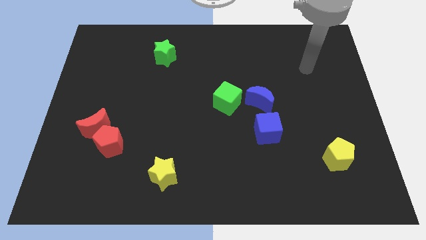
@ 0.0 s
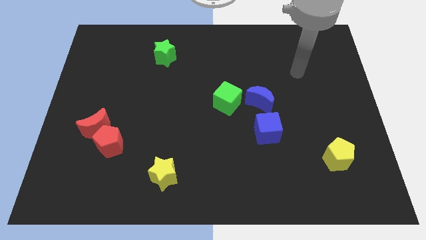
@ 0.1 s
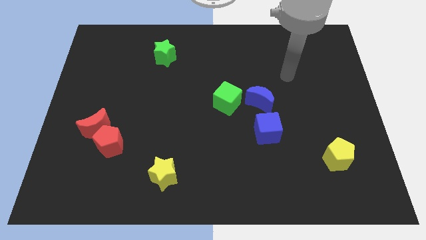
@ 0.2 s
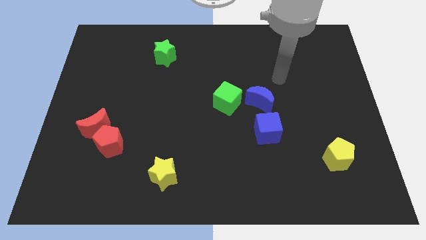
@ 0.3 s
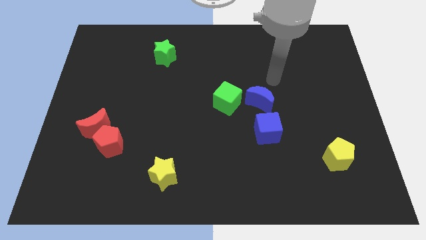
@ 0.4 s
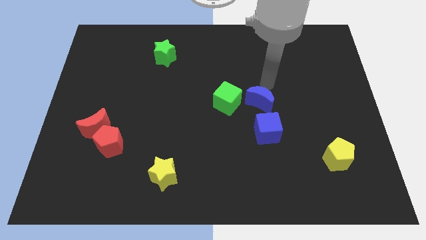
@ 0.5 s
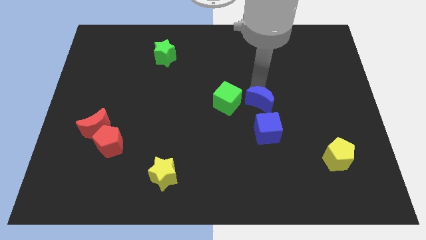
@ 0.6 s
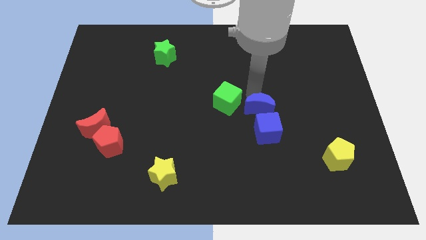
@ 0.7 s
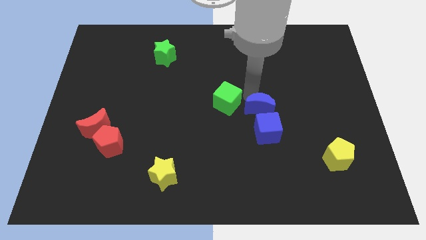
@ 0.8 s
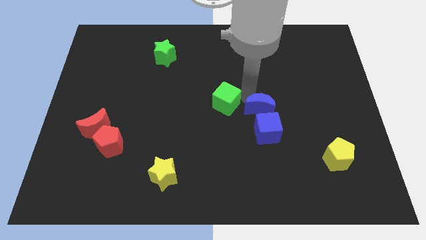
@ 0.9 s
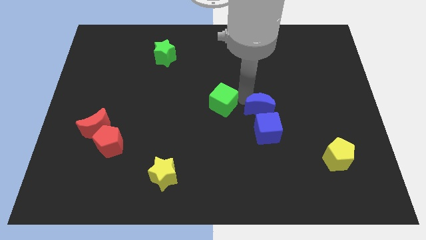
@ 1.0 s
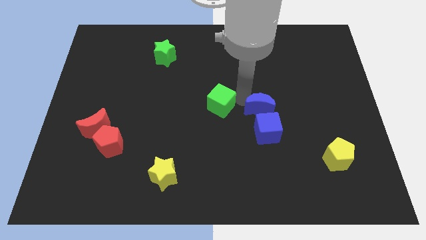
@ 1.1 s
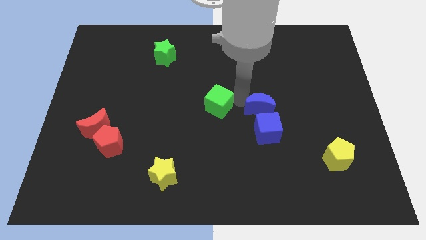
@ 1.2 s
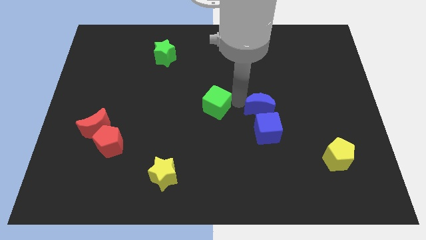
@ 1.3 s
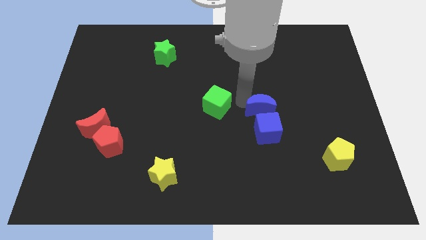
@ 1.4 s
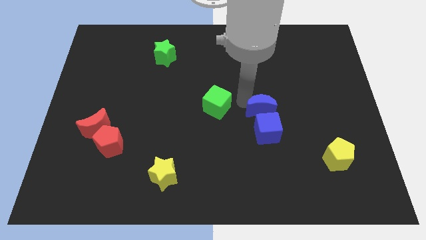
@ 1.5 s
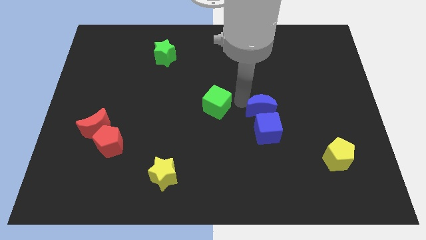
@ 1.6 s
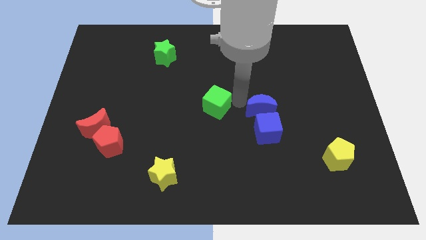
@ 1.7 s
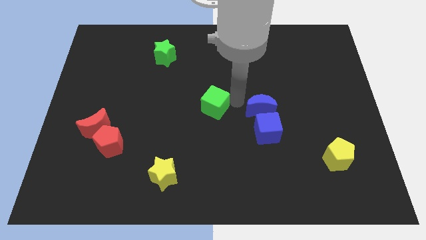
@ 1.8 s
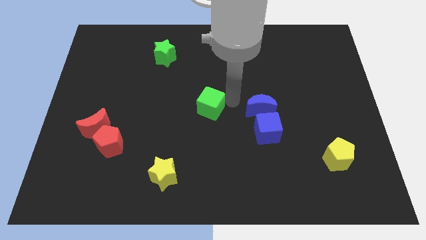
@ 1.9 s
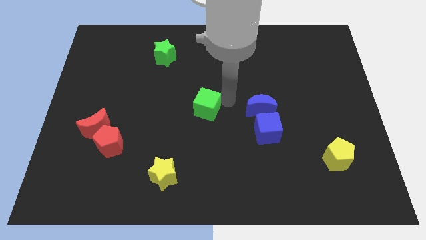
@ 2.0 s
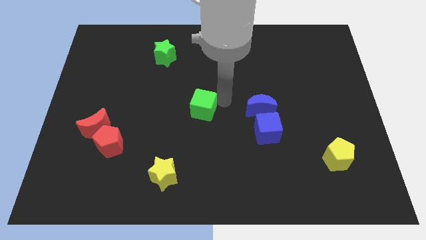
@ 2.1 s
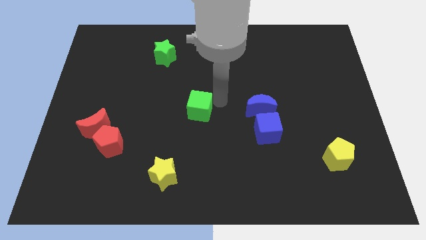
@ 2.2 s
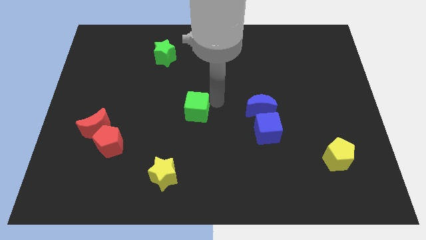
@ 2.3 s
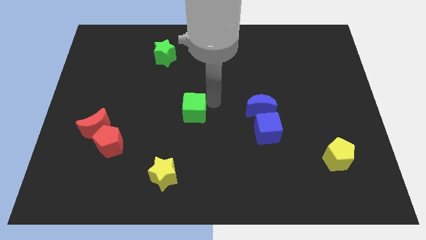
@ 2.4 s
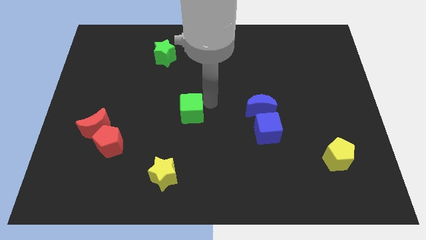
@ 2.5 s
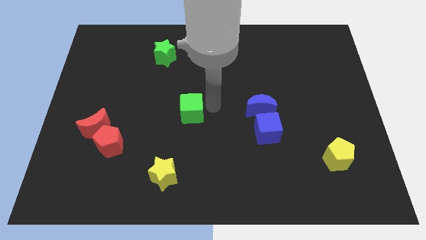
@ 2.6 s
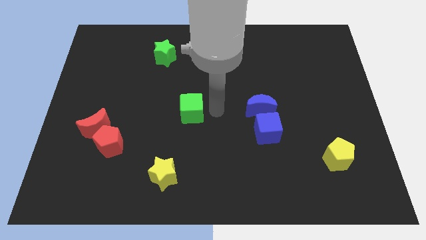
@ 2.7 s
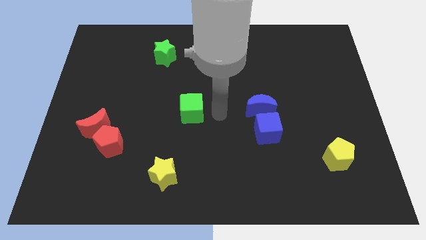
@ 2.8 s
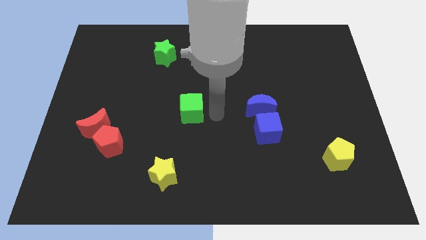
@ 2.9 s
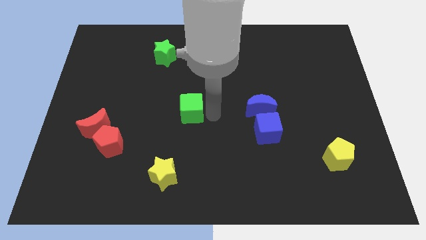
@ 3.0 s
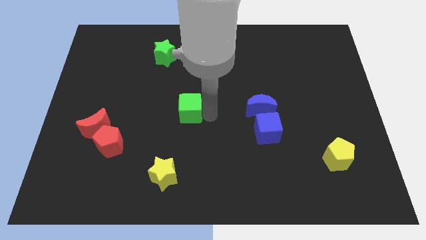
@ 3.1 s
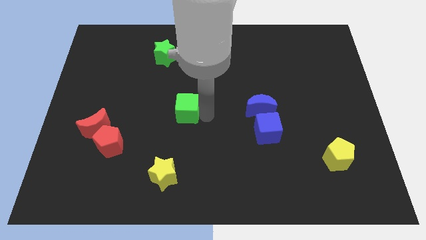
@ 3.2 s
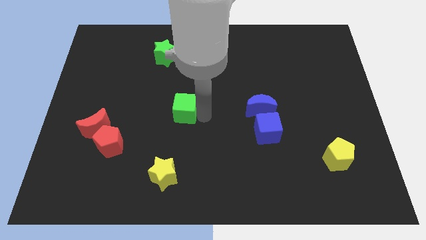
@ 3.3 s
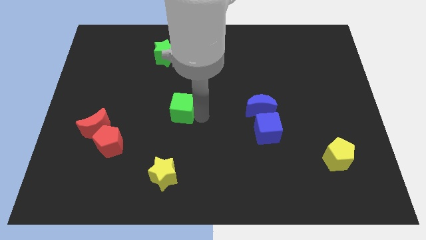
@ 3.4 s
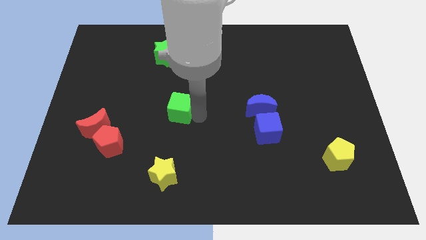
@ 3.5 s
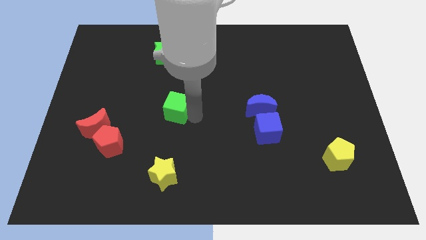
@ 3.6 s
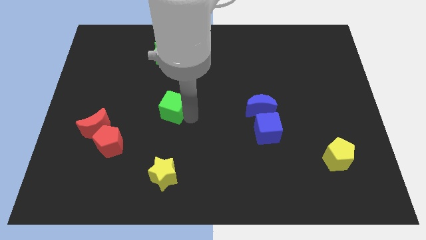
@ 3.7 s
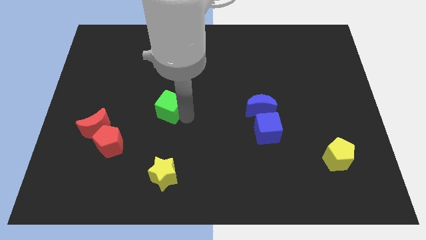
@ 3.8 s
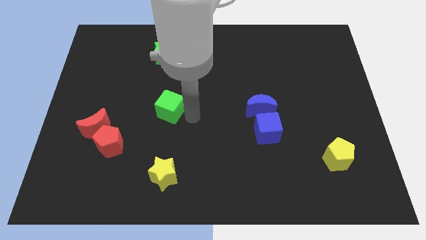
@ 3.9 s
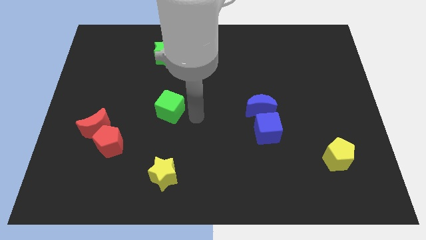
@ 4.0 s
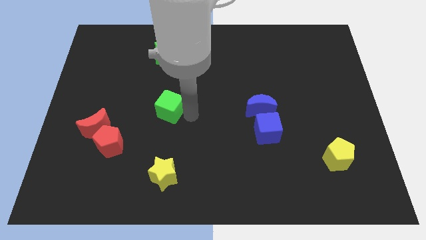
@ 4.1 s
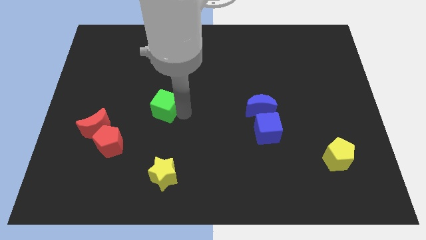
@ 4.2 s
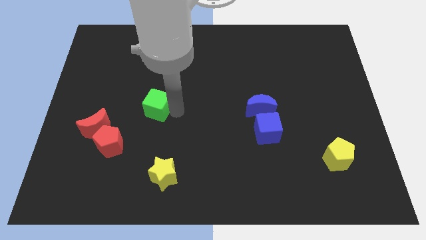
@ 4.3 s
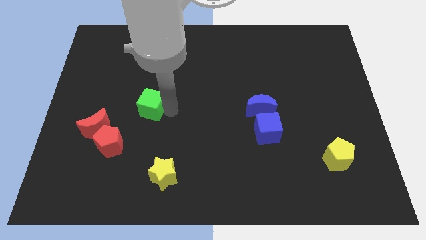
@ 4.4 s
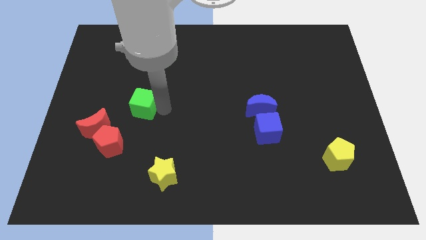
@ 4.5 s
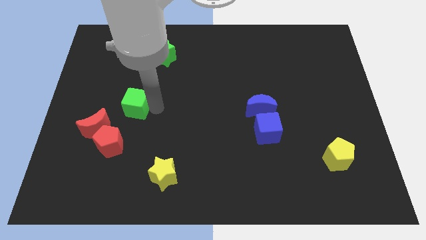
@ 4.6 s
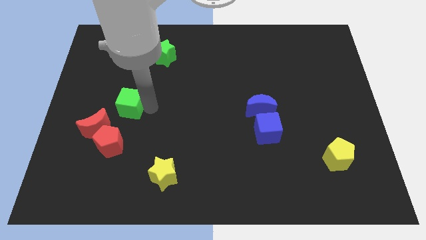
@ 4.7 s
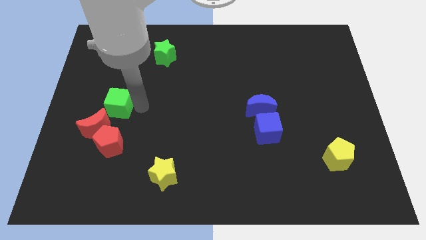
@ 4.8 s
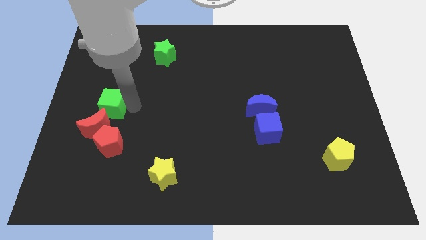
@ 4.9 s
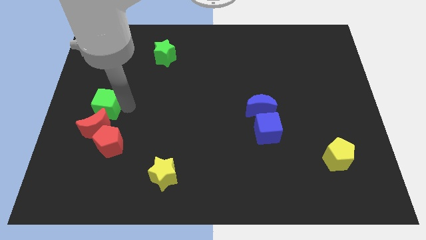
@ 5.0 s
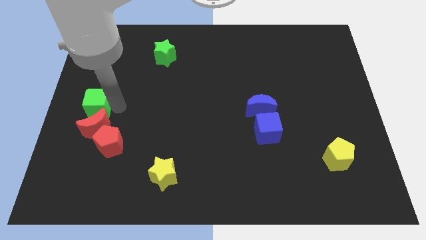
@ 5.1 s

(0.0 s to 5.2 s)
move the green cube to the left side

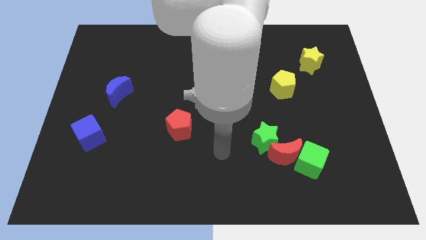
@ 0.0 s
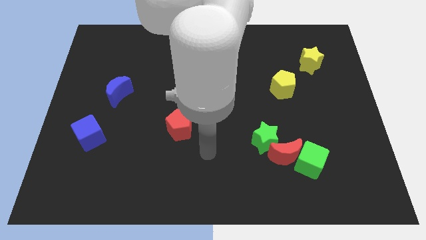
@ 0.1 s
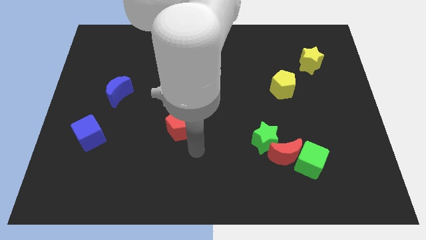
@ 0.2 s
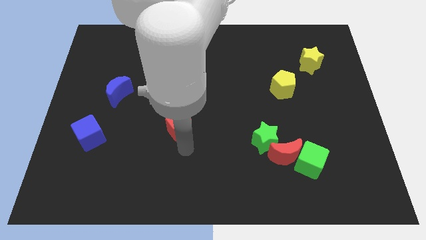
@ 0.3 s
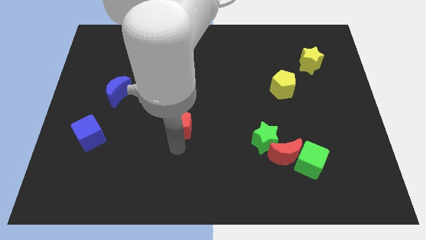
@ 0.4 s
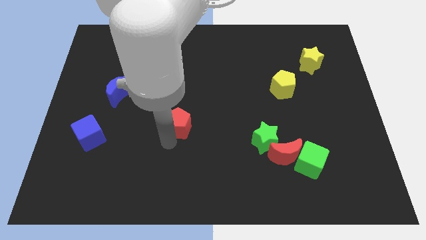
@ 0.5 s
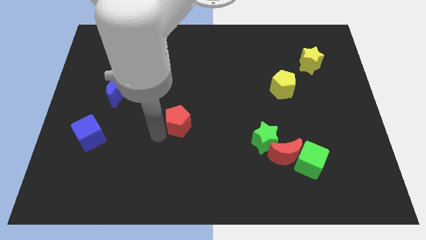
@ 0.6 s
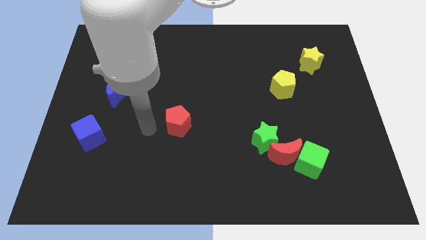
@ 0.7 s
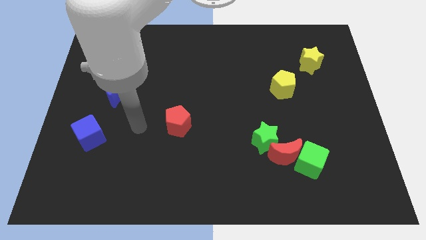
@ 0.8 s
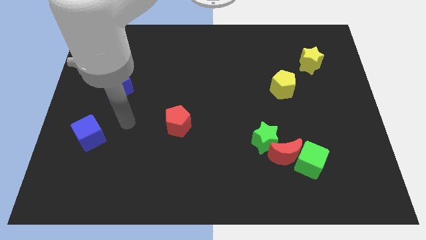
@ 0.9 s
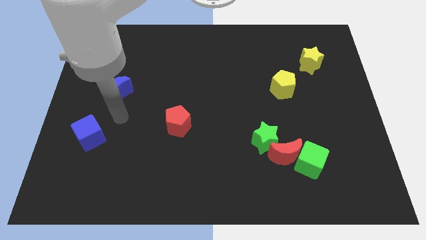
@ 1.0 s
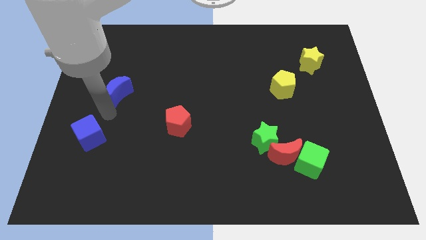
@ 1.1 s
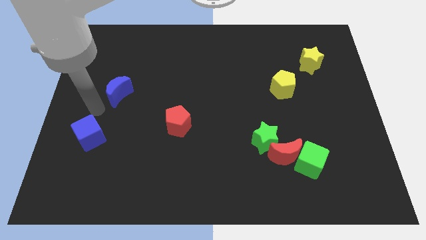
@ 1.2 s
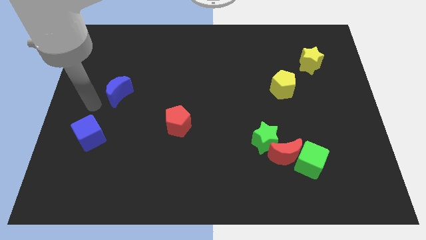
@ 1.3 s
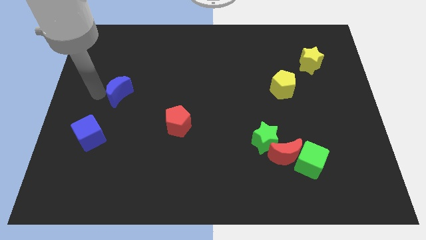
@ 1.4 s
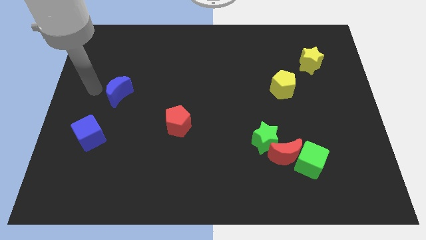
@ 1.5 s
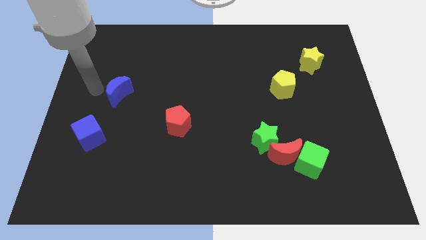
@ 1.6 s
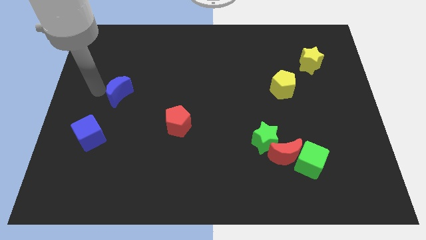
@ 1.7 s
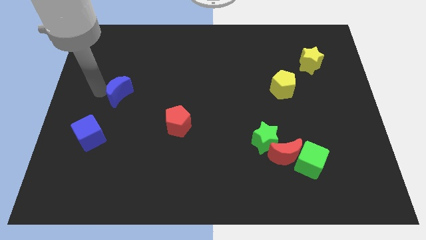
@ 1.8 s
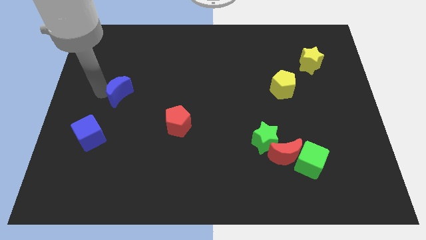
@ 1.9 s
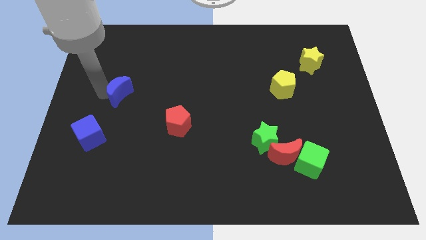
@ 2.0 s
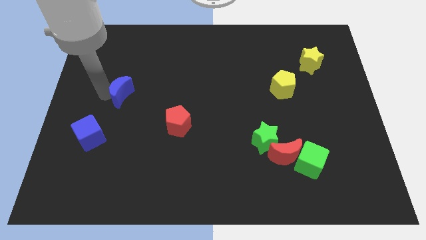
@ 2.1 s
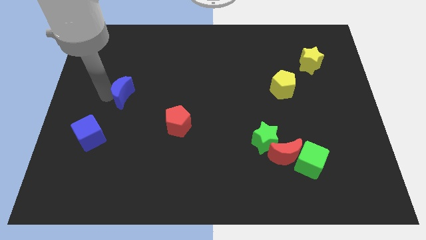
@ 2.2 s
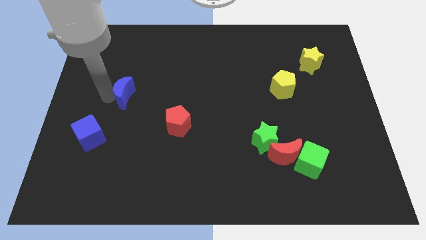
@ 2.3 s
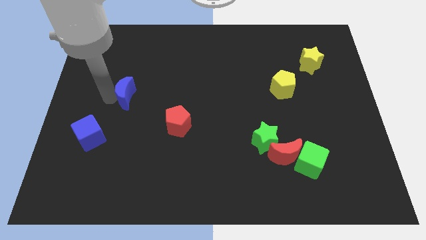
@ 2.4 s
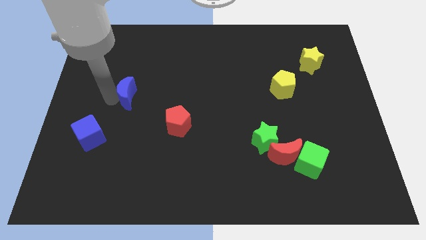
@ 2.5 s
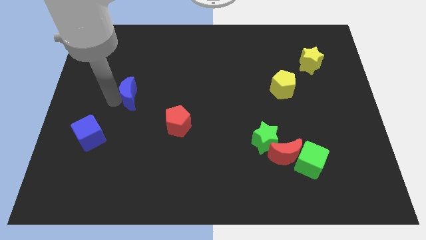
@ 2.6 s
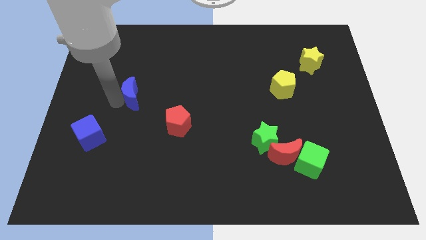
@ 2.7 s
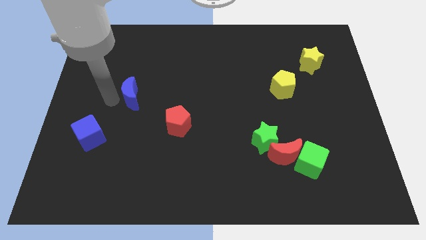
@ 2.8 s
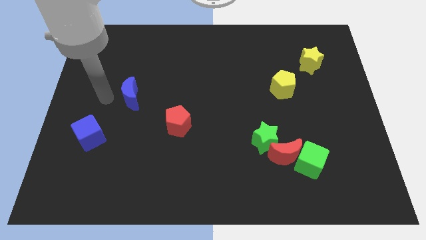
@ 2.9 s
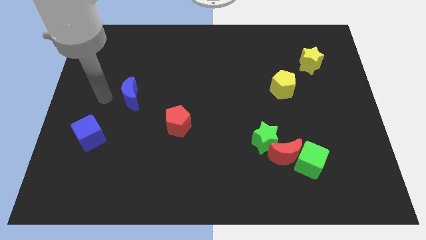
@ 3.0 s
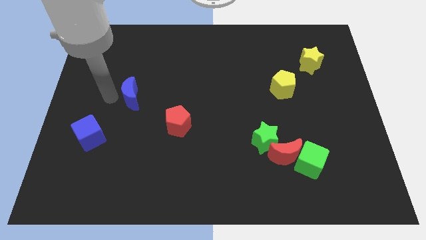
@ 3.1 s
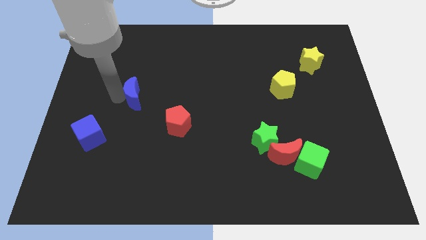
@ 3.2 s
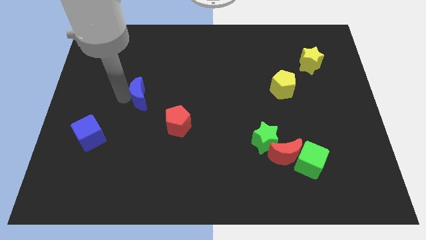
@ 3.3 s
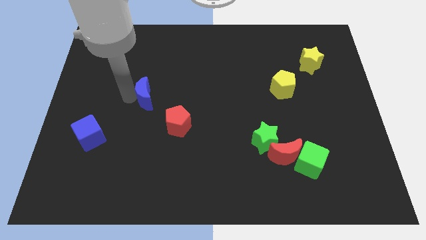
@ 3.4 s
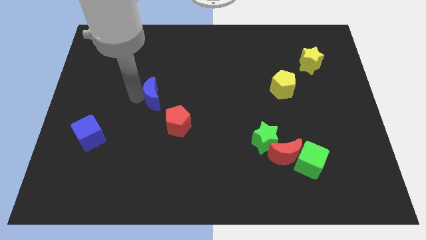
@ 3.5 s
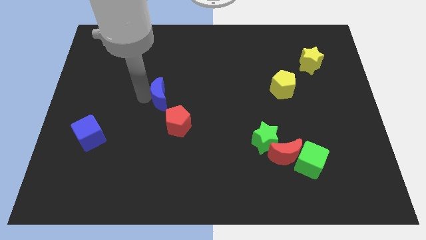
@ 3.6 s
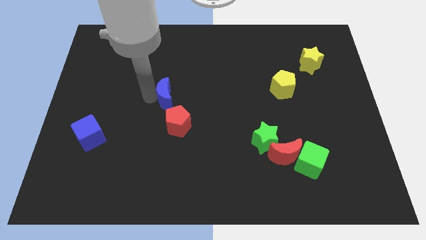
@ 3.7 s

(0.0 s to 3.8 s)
slide the blue moon to the middle of the board
